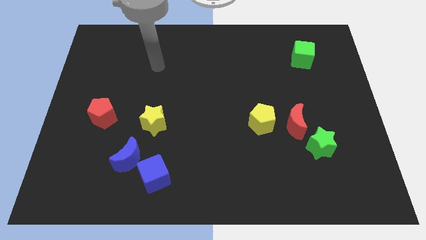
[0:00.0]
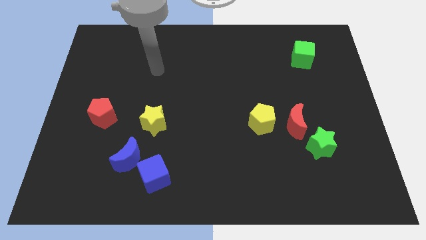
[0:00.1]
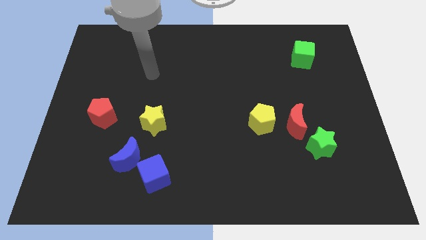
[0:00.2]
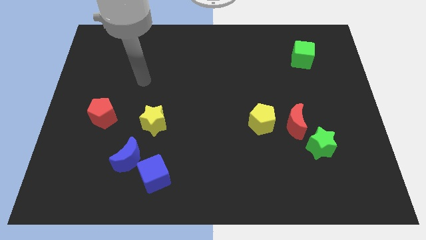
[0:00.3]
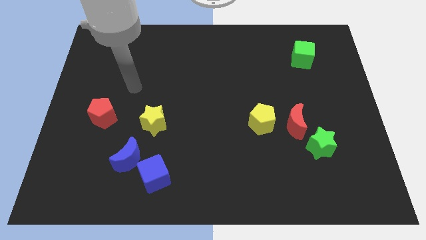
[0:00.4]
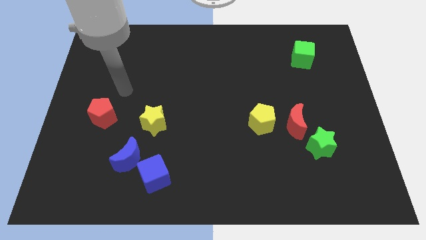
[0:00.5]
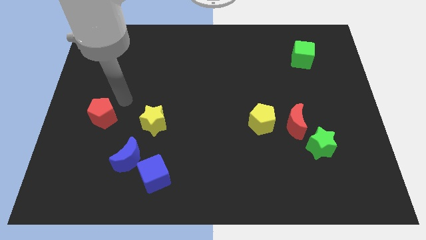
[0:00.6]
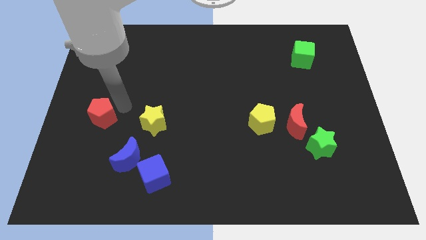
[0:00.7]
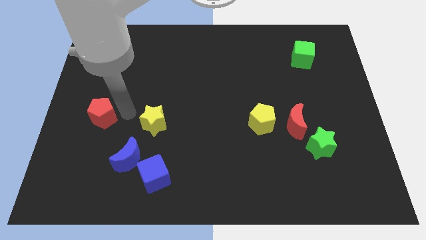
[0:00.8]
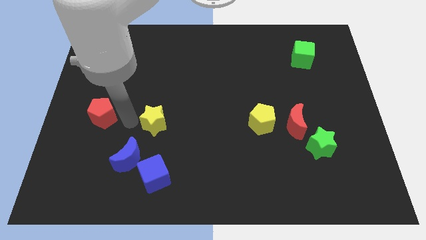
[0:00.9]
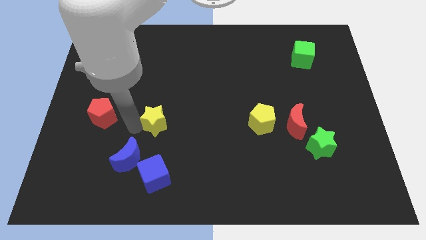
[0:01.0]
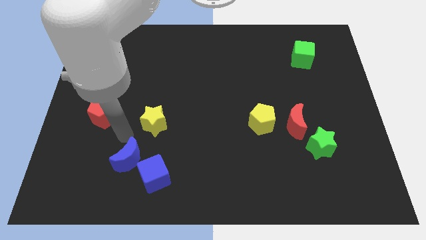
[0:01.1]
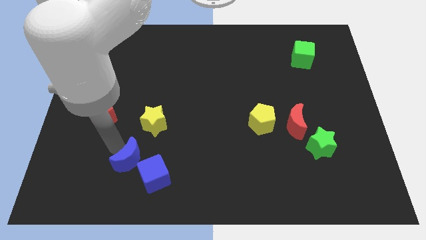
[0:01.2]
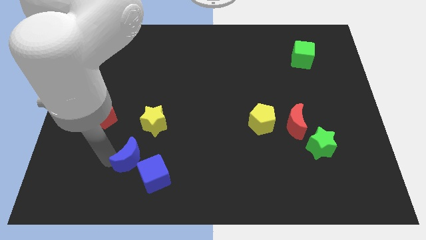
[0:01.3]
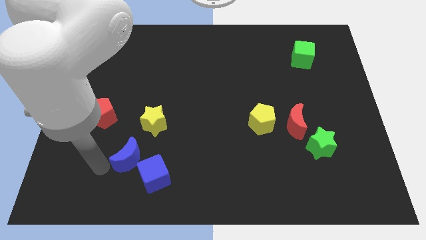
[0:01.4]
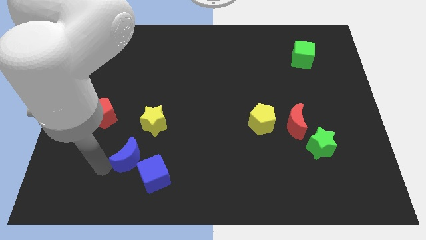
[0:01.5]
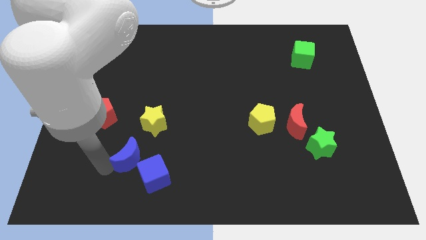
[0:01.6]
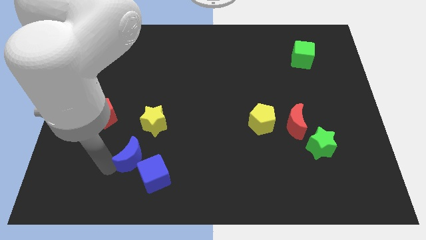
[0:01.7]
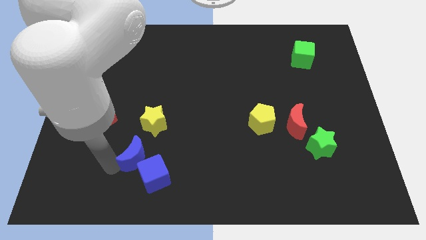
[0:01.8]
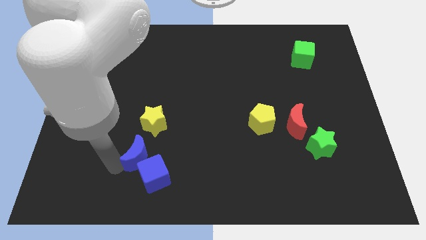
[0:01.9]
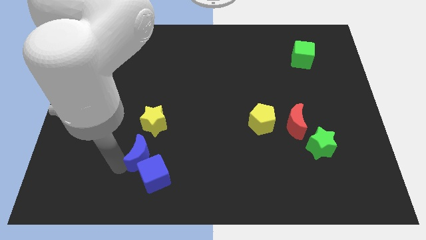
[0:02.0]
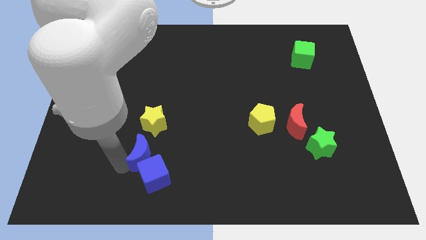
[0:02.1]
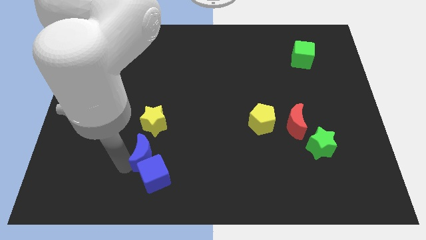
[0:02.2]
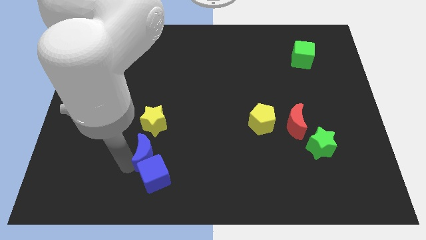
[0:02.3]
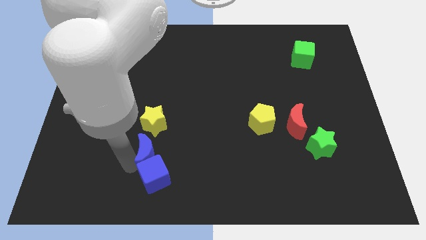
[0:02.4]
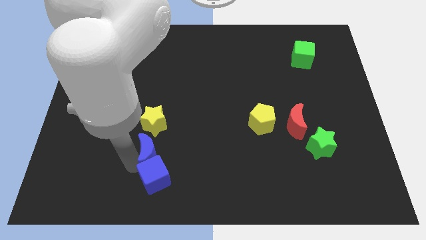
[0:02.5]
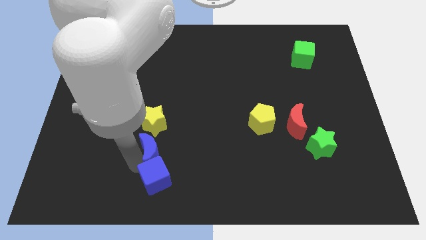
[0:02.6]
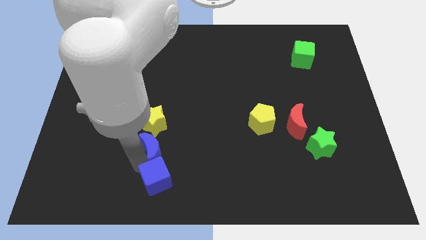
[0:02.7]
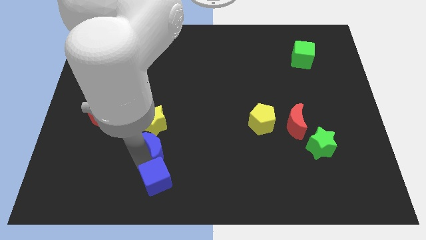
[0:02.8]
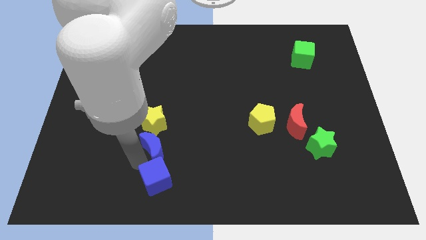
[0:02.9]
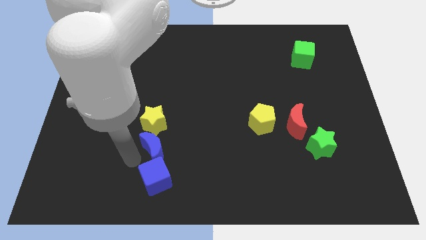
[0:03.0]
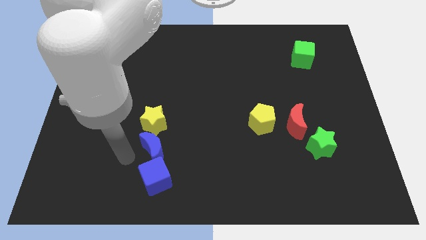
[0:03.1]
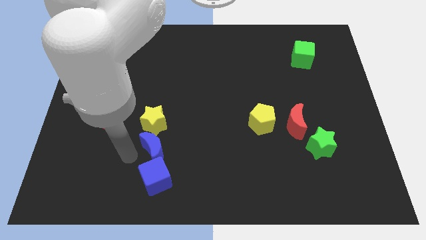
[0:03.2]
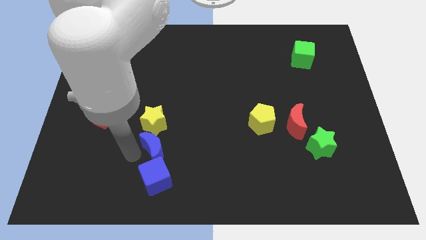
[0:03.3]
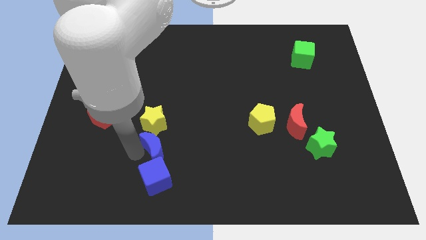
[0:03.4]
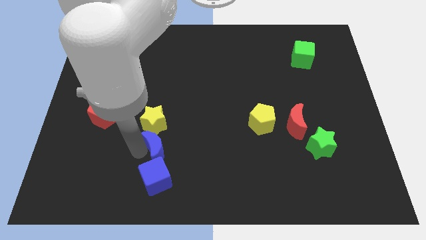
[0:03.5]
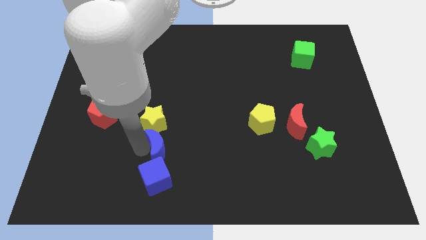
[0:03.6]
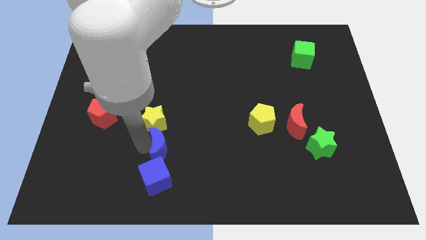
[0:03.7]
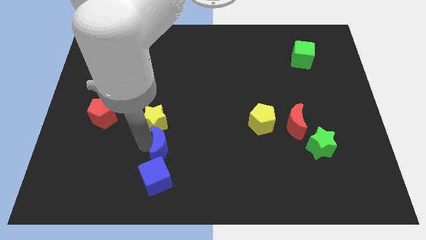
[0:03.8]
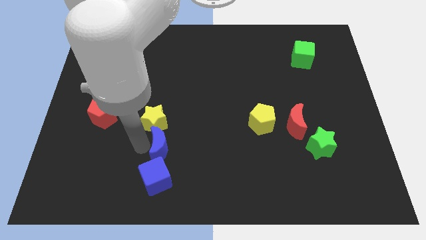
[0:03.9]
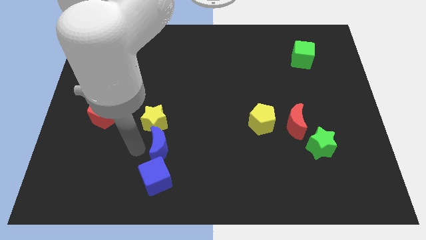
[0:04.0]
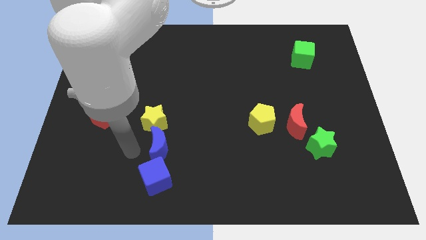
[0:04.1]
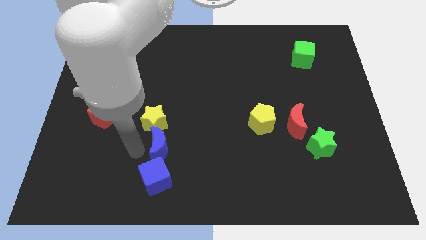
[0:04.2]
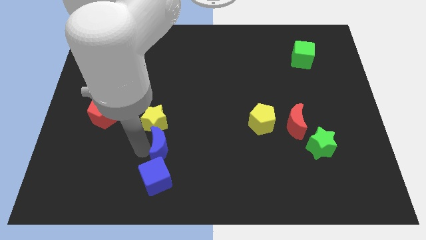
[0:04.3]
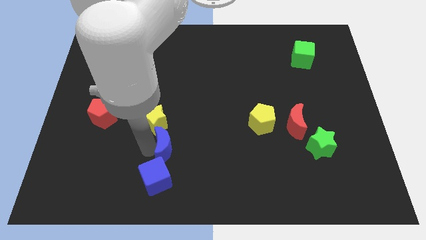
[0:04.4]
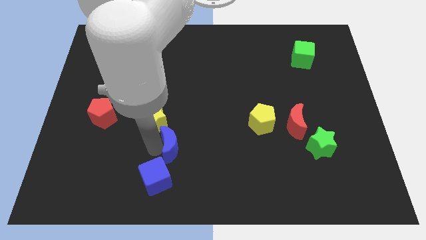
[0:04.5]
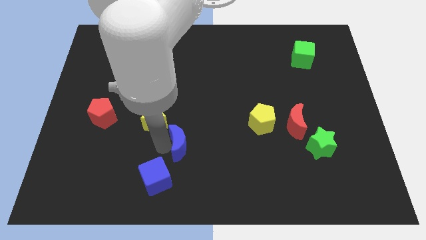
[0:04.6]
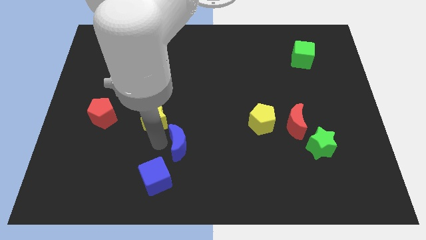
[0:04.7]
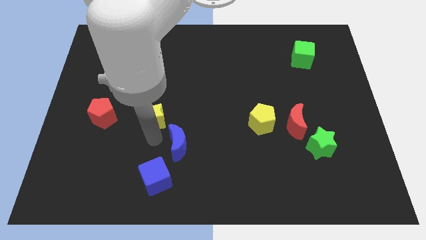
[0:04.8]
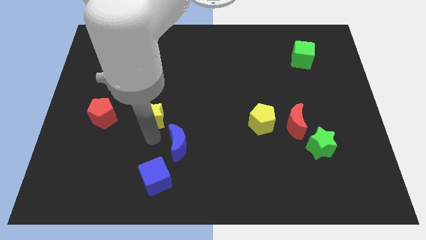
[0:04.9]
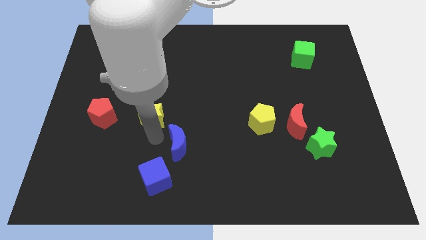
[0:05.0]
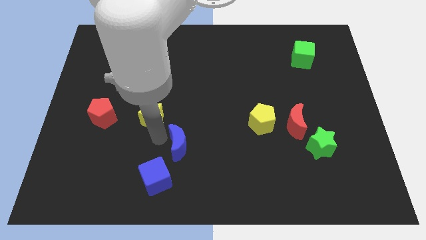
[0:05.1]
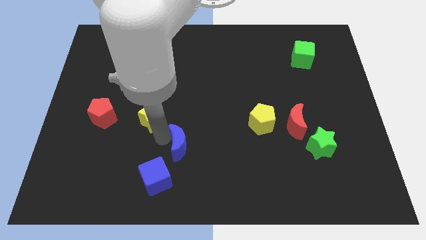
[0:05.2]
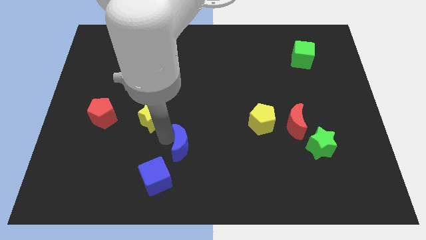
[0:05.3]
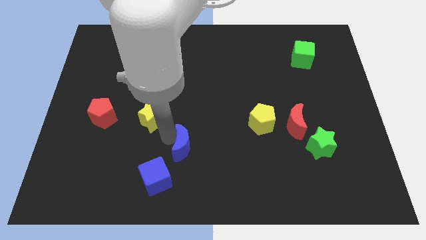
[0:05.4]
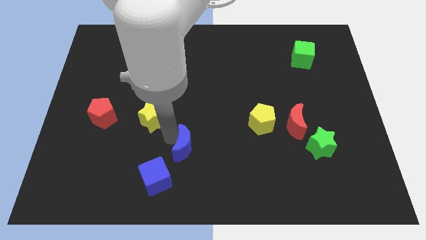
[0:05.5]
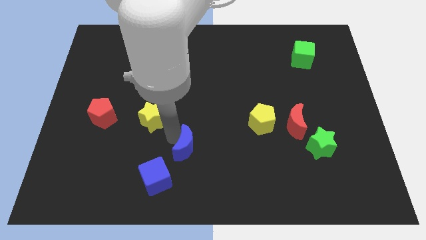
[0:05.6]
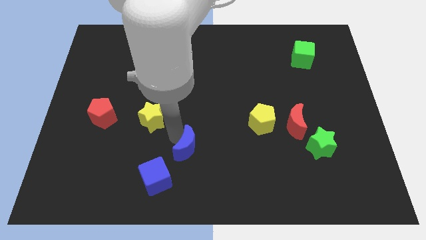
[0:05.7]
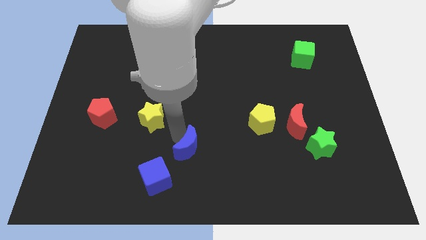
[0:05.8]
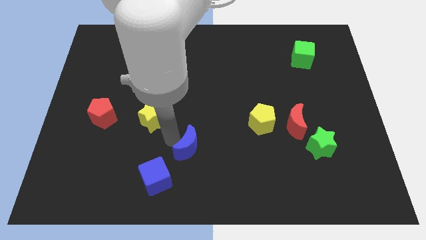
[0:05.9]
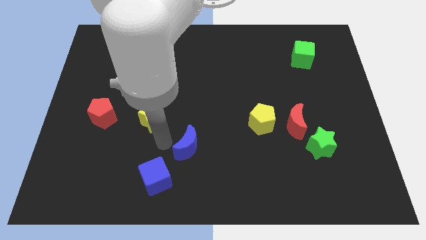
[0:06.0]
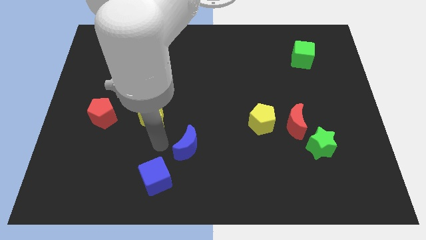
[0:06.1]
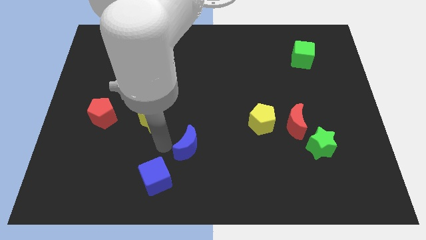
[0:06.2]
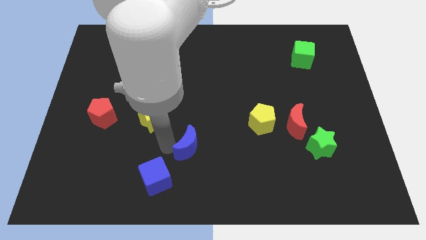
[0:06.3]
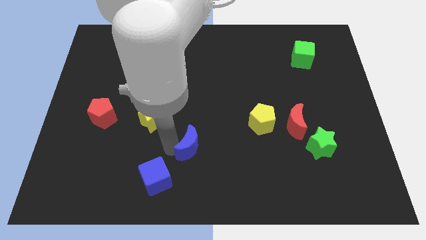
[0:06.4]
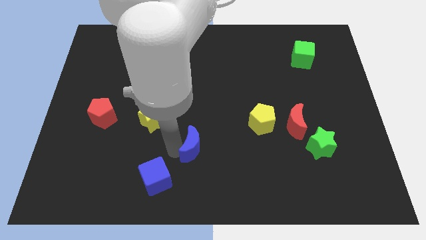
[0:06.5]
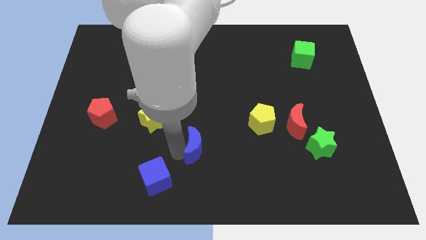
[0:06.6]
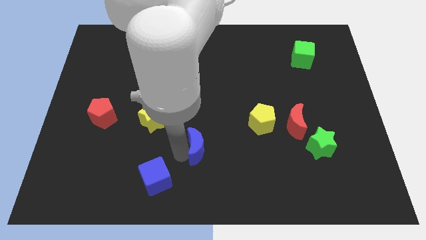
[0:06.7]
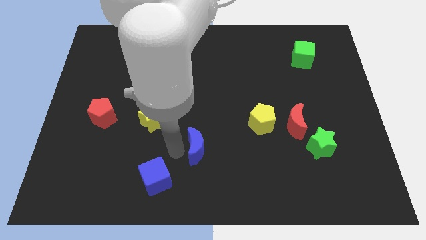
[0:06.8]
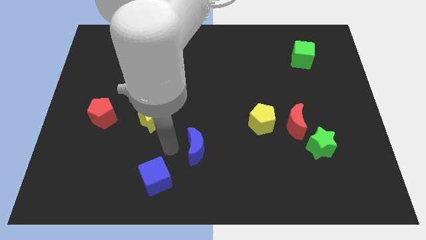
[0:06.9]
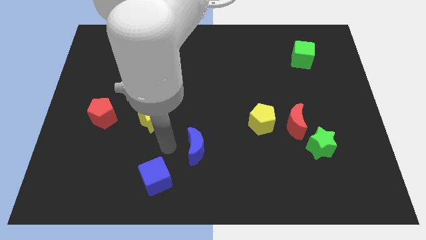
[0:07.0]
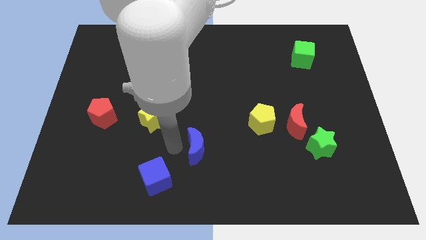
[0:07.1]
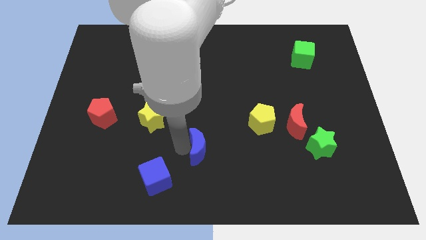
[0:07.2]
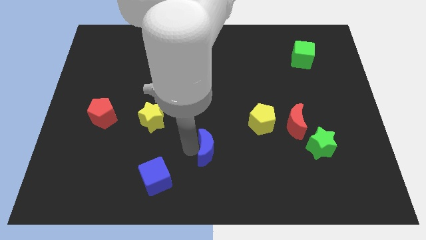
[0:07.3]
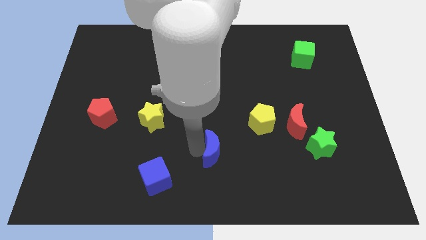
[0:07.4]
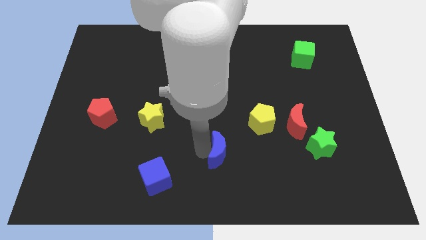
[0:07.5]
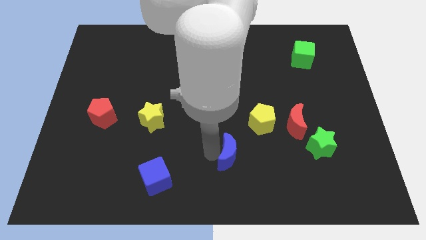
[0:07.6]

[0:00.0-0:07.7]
move the blue moon to the right

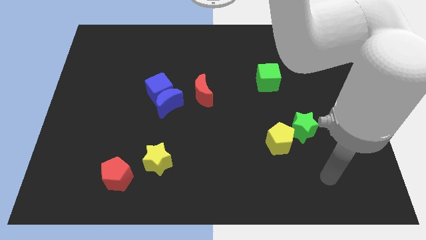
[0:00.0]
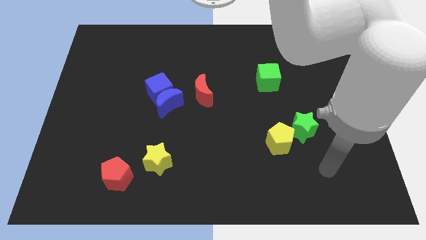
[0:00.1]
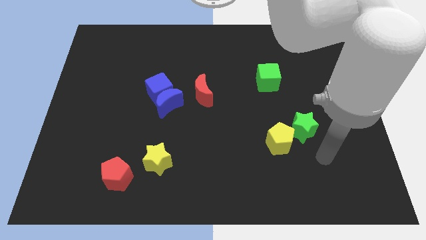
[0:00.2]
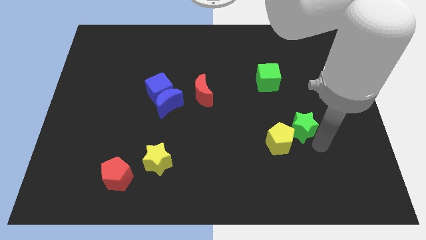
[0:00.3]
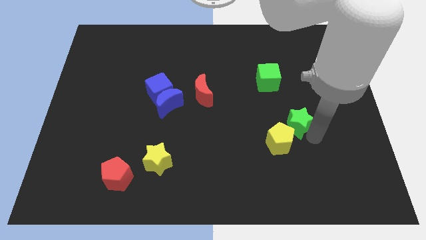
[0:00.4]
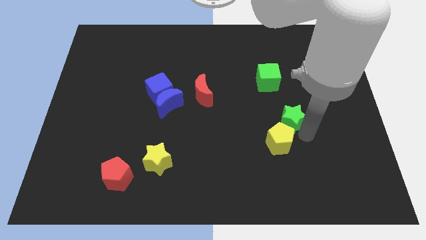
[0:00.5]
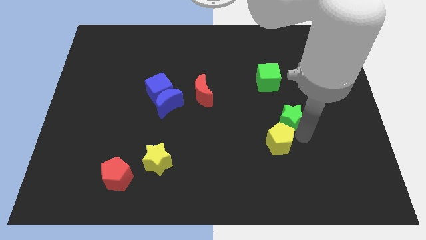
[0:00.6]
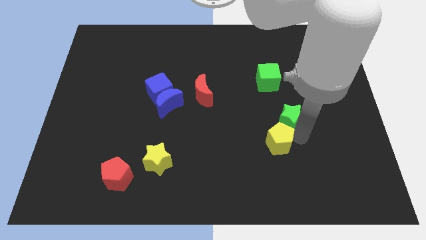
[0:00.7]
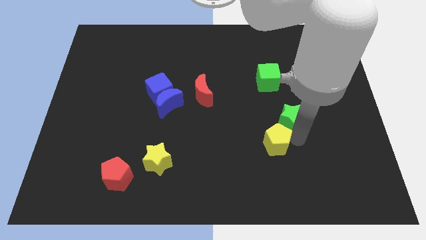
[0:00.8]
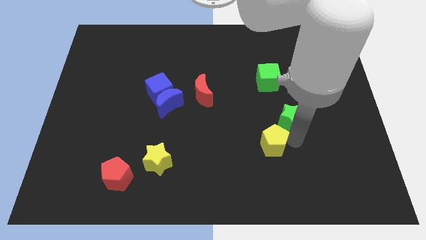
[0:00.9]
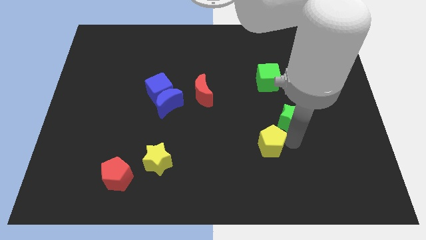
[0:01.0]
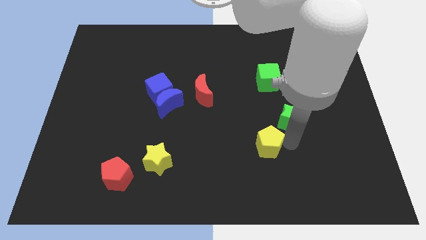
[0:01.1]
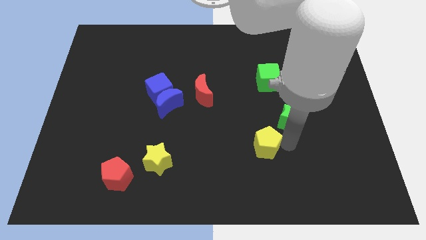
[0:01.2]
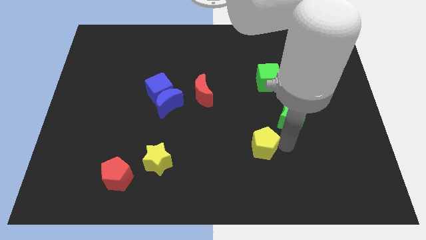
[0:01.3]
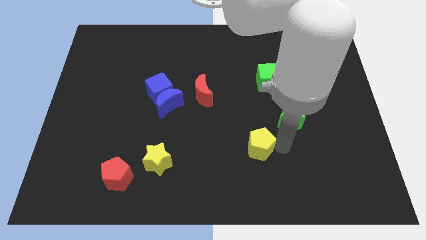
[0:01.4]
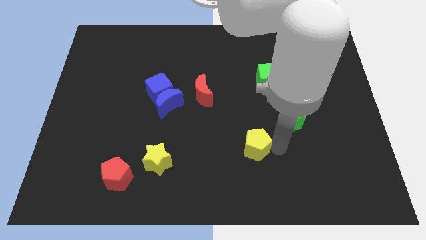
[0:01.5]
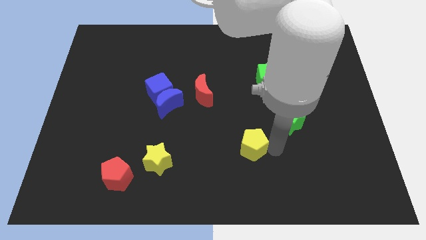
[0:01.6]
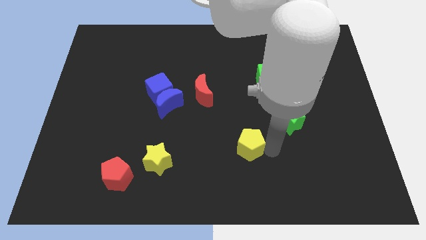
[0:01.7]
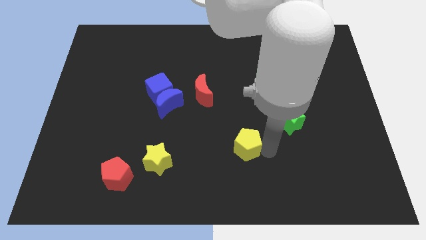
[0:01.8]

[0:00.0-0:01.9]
push the yellow pentagon left a bit
